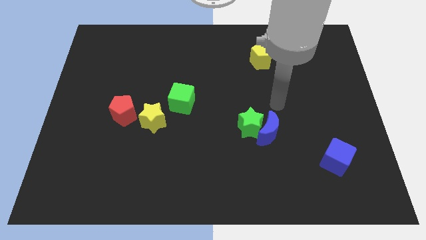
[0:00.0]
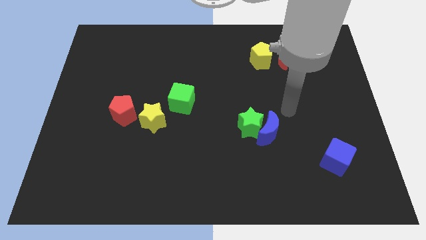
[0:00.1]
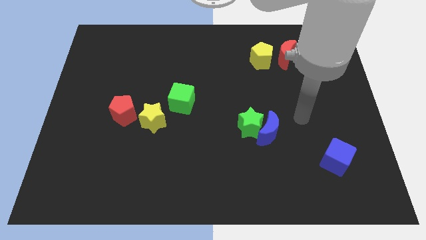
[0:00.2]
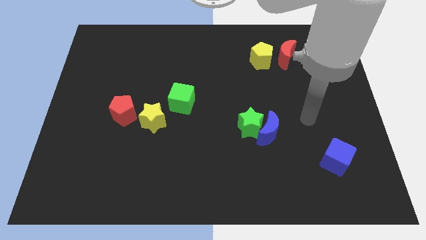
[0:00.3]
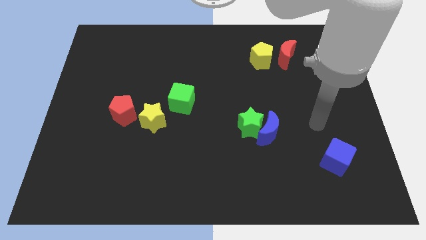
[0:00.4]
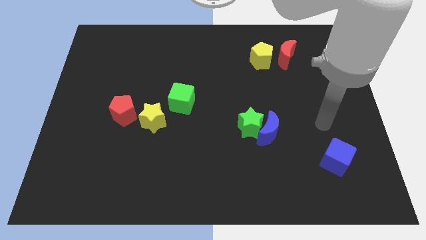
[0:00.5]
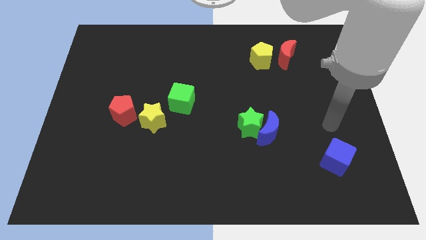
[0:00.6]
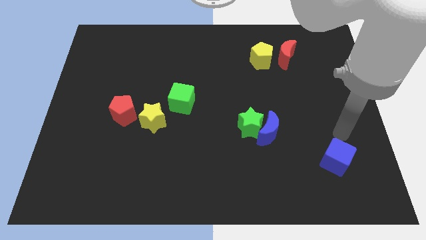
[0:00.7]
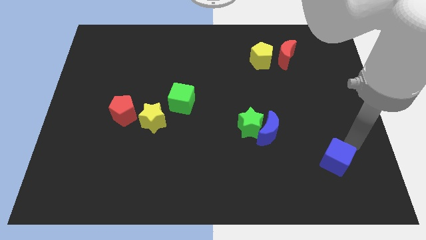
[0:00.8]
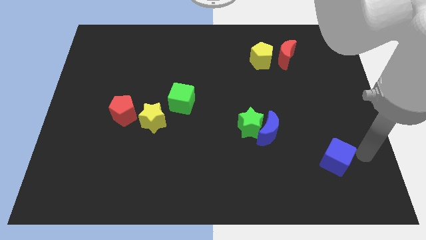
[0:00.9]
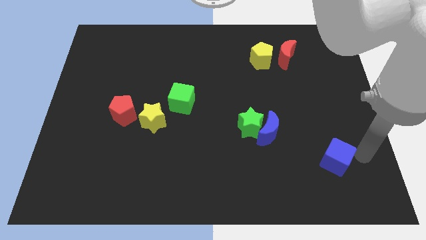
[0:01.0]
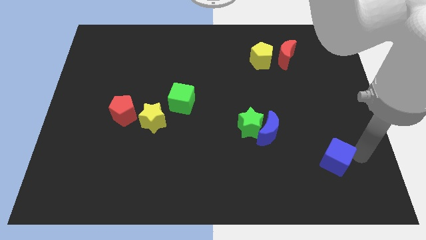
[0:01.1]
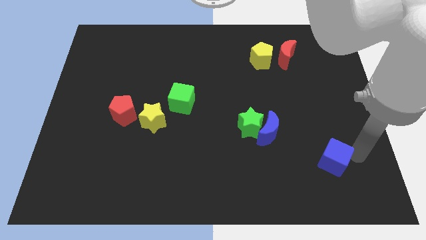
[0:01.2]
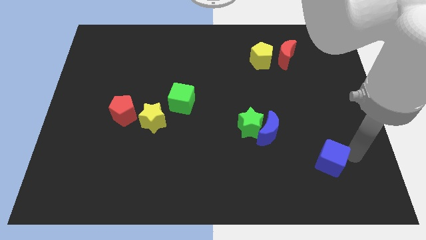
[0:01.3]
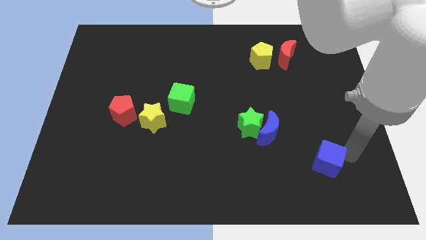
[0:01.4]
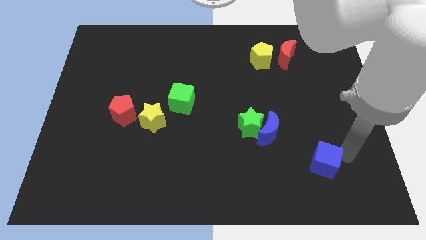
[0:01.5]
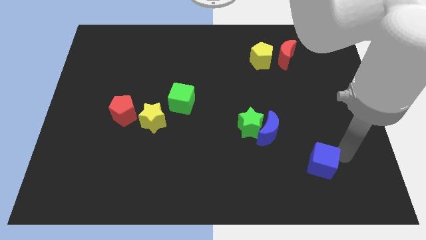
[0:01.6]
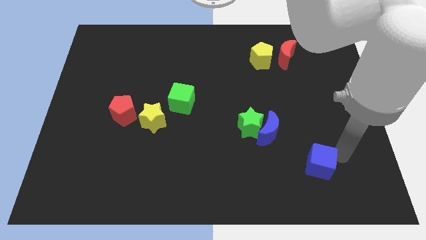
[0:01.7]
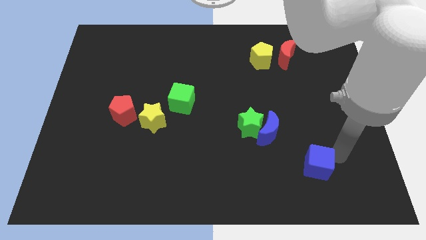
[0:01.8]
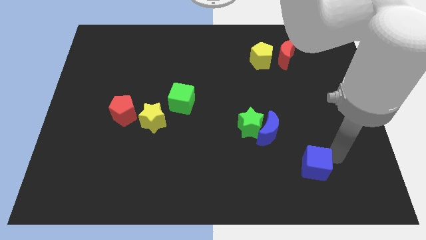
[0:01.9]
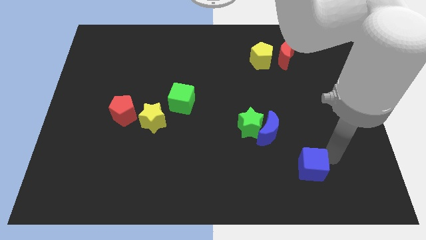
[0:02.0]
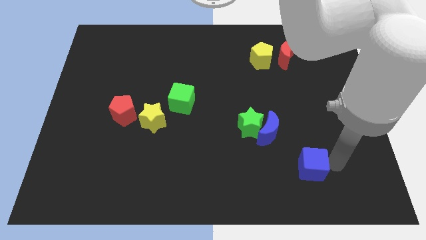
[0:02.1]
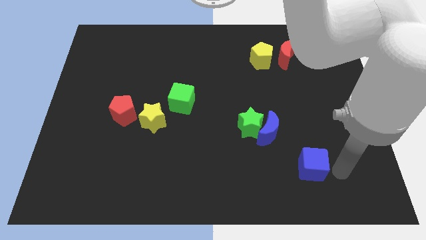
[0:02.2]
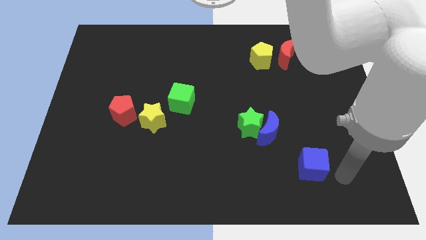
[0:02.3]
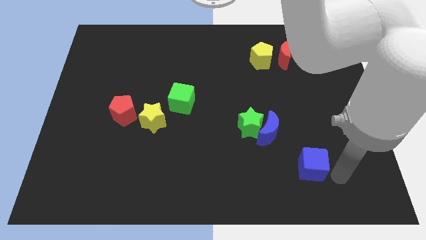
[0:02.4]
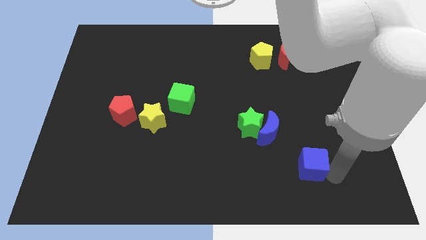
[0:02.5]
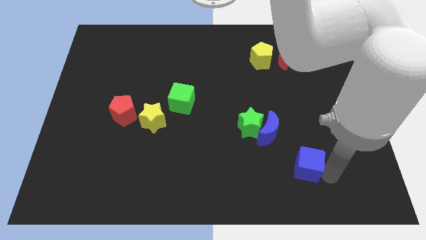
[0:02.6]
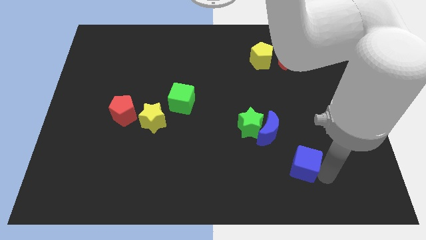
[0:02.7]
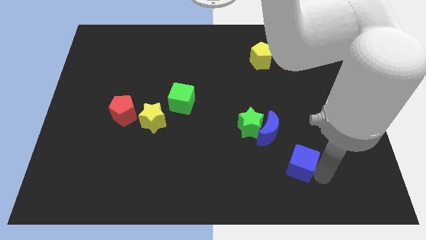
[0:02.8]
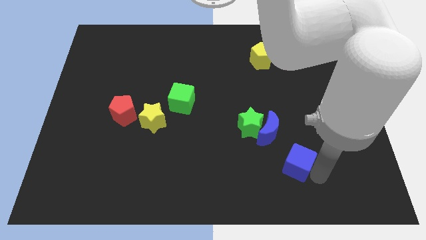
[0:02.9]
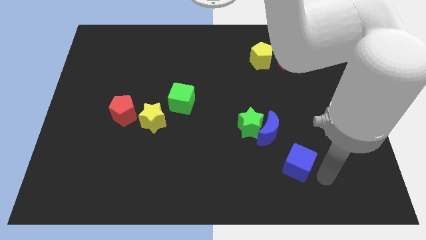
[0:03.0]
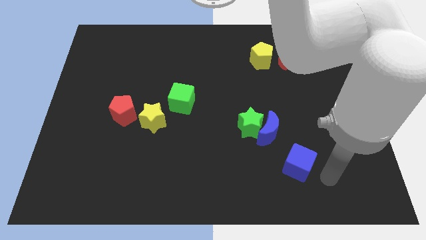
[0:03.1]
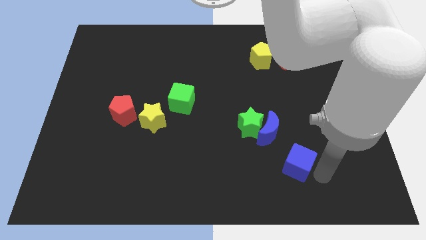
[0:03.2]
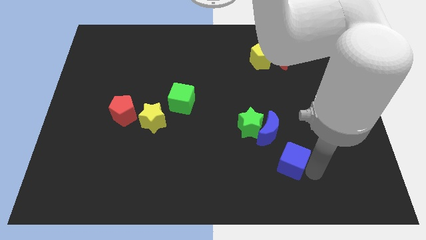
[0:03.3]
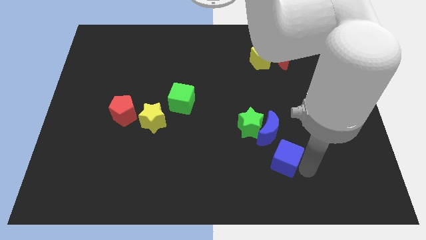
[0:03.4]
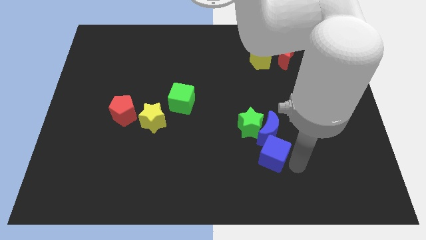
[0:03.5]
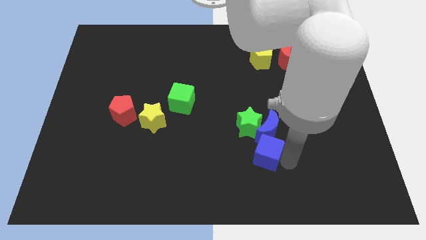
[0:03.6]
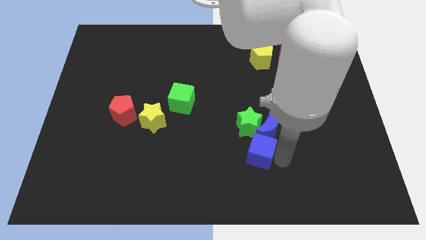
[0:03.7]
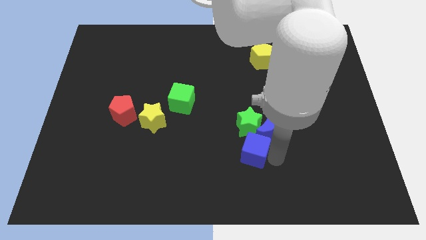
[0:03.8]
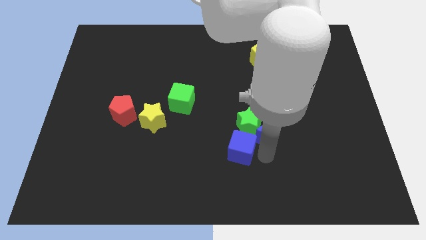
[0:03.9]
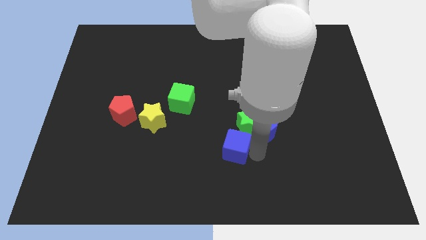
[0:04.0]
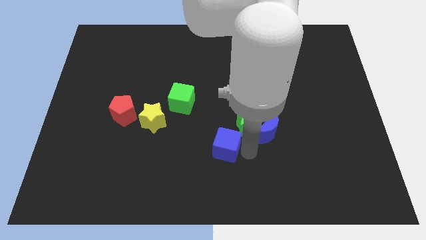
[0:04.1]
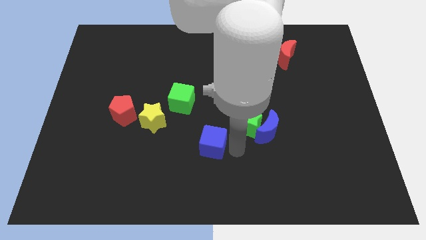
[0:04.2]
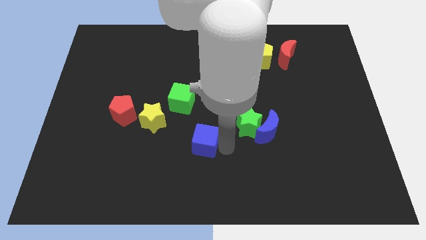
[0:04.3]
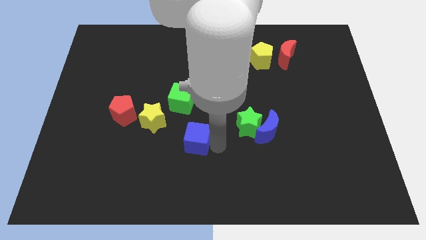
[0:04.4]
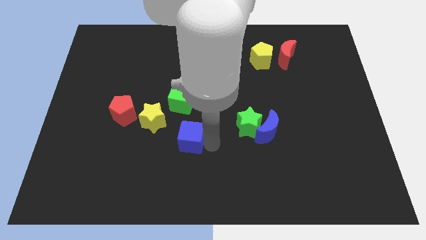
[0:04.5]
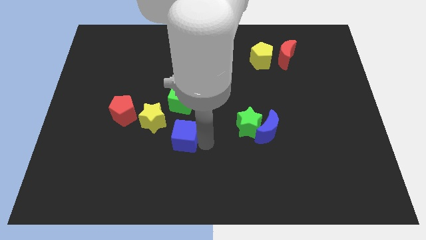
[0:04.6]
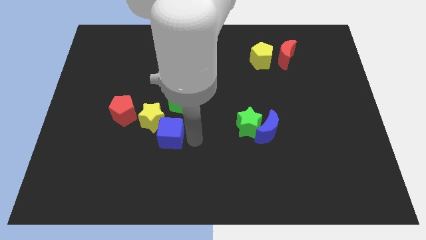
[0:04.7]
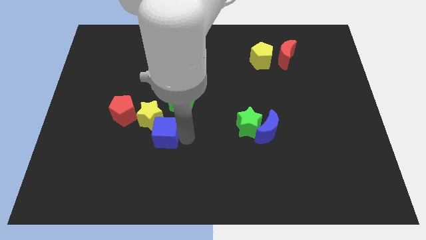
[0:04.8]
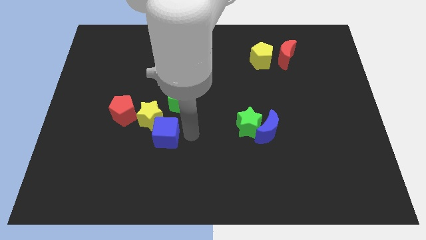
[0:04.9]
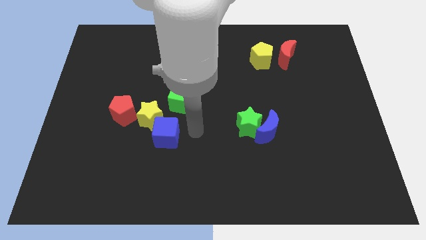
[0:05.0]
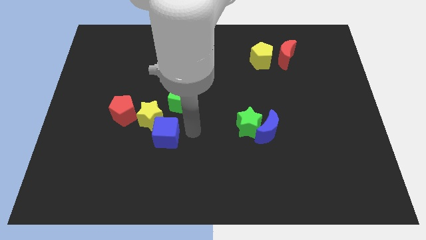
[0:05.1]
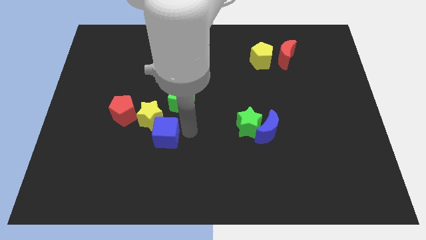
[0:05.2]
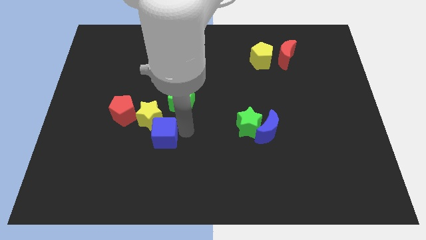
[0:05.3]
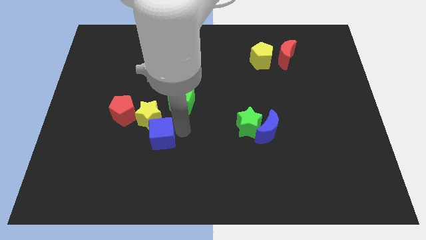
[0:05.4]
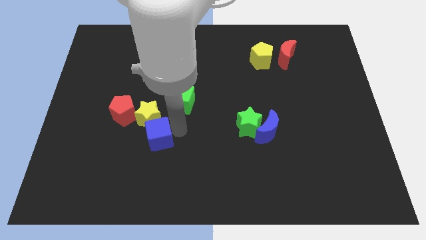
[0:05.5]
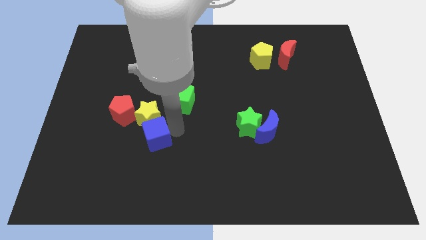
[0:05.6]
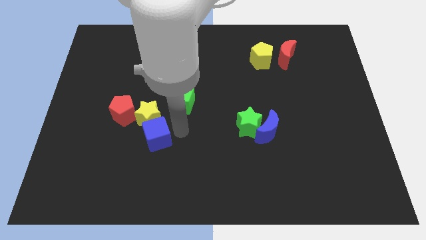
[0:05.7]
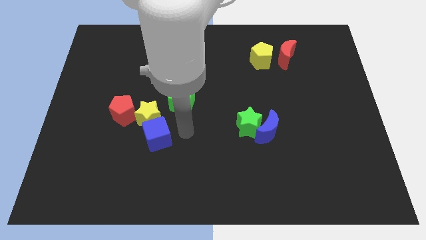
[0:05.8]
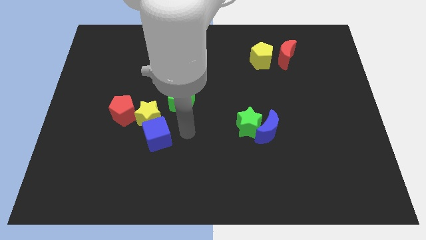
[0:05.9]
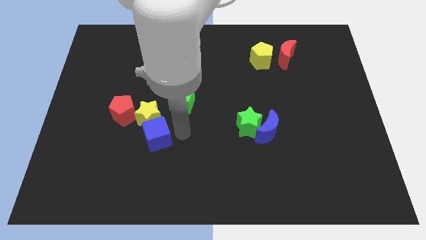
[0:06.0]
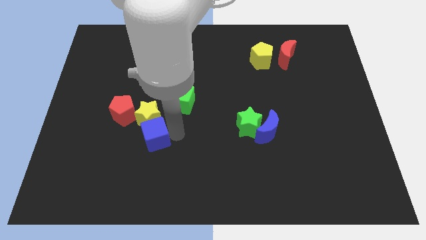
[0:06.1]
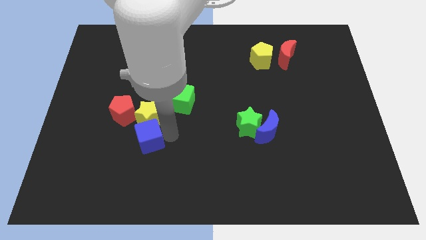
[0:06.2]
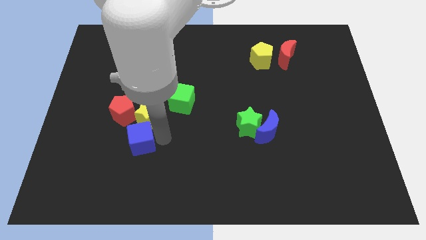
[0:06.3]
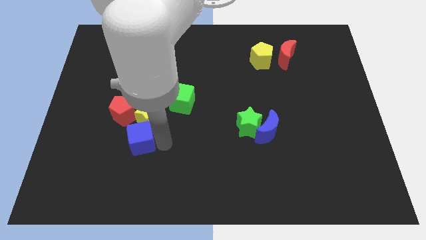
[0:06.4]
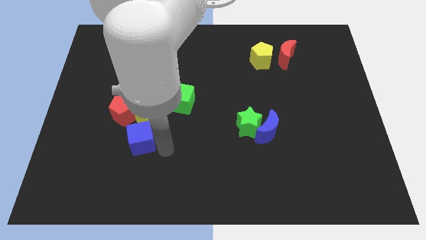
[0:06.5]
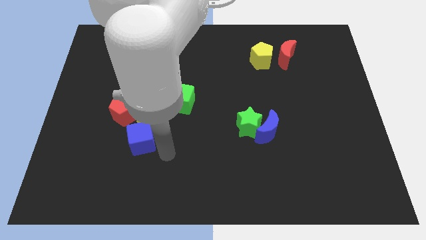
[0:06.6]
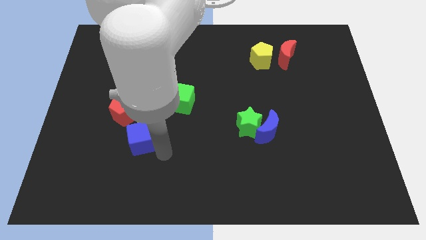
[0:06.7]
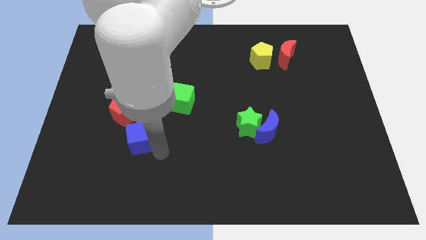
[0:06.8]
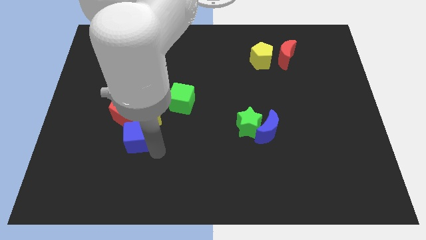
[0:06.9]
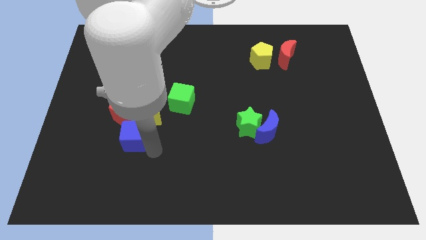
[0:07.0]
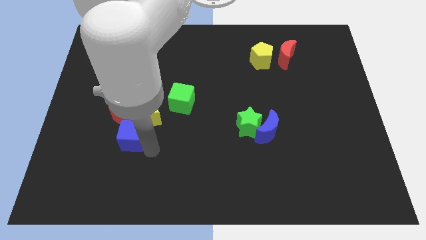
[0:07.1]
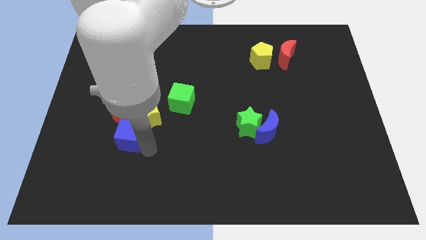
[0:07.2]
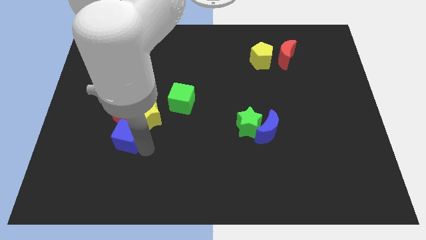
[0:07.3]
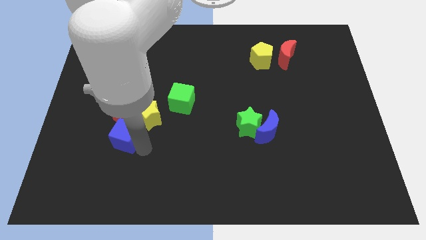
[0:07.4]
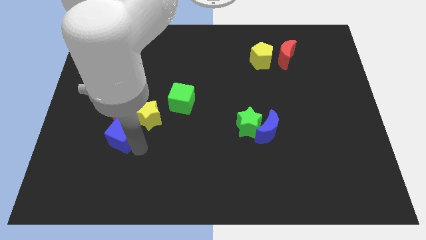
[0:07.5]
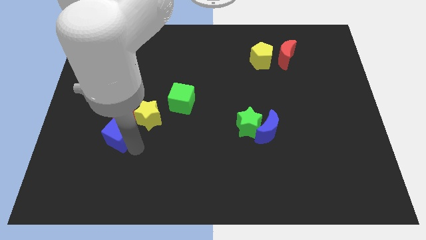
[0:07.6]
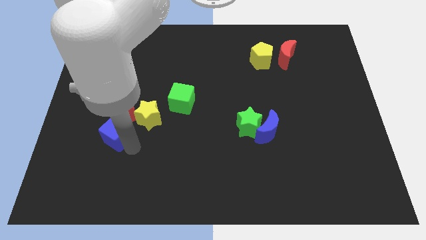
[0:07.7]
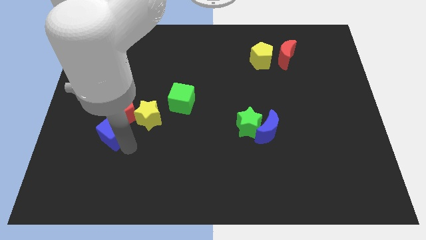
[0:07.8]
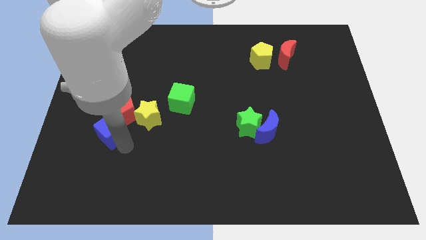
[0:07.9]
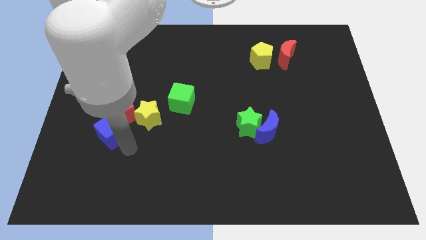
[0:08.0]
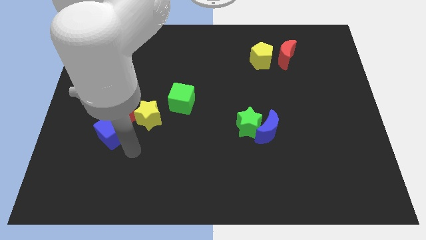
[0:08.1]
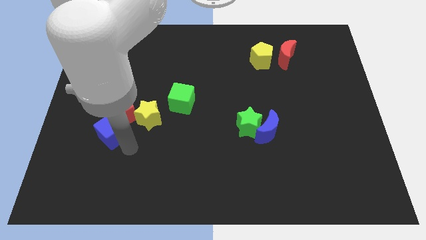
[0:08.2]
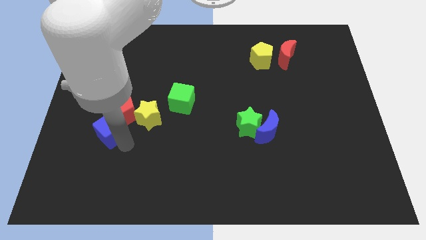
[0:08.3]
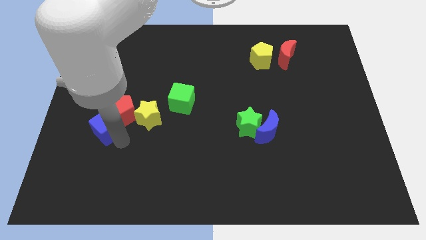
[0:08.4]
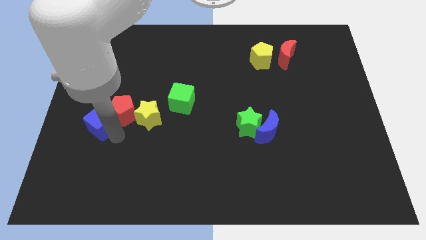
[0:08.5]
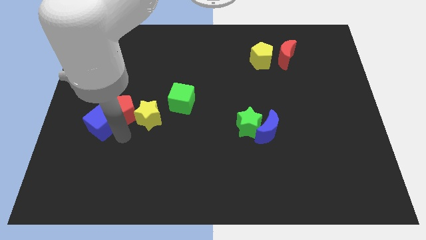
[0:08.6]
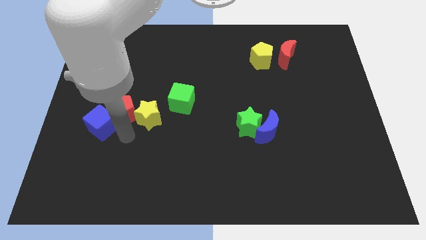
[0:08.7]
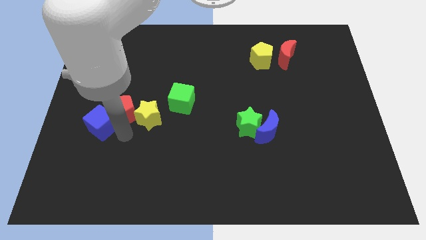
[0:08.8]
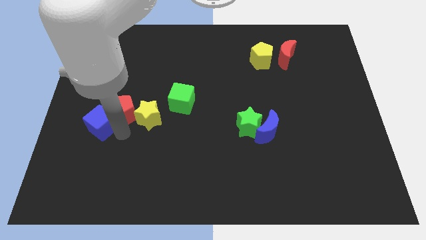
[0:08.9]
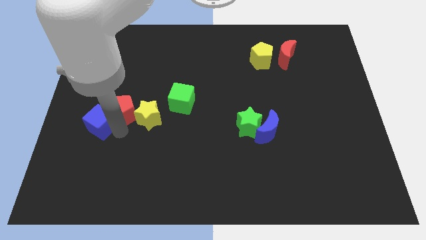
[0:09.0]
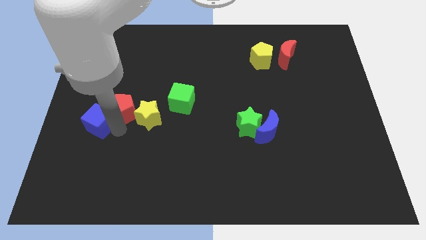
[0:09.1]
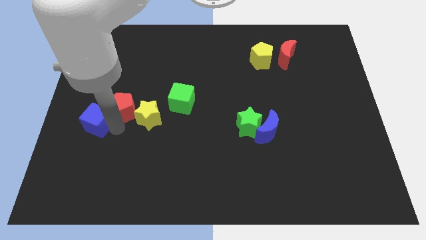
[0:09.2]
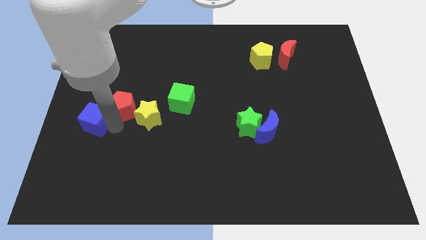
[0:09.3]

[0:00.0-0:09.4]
push the blue cube to the left side
